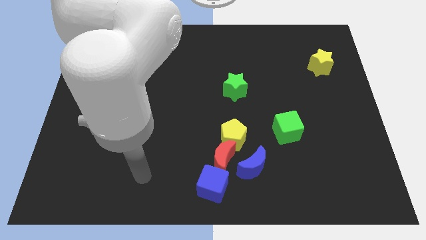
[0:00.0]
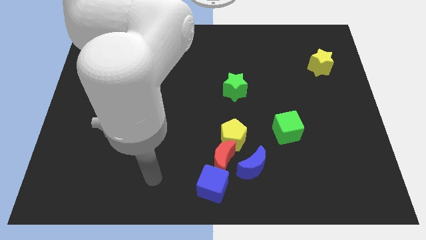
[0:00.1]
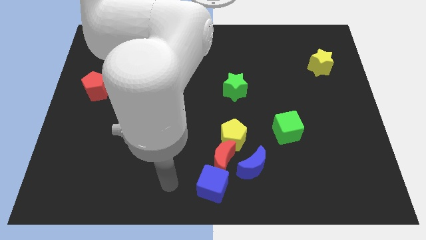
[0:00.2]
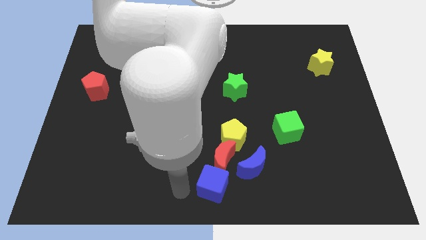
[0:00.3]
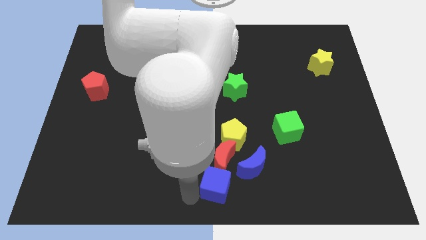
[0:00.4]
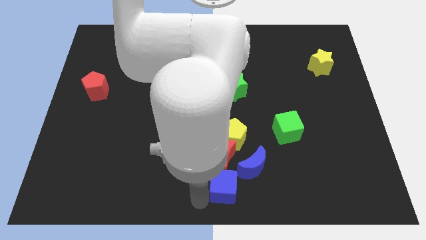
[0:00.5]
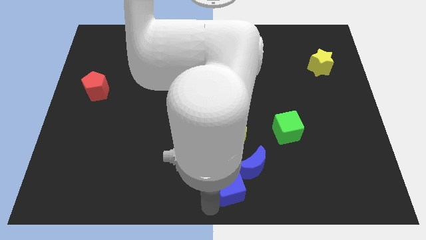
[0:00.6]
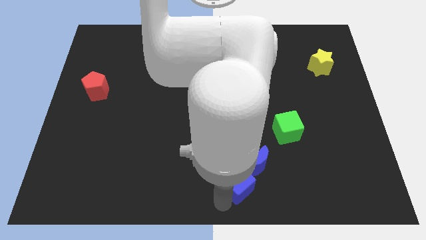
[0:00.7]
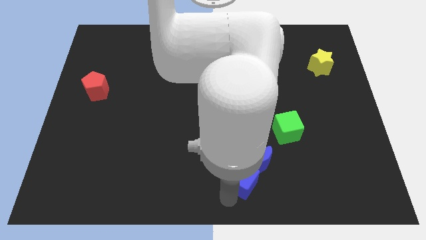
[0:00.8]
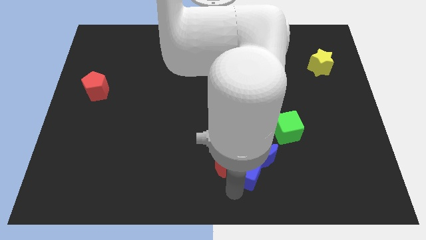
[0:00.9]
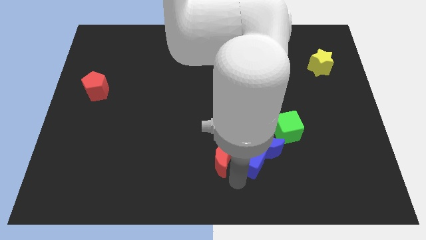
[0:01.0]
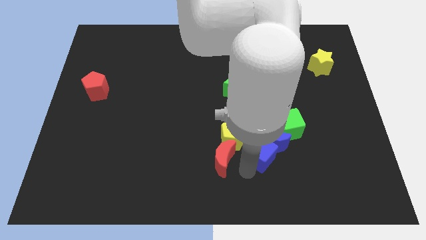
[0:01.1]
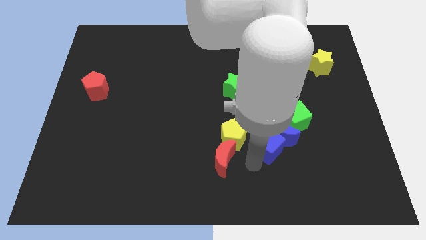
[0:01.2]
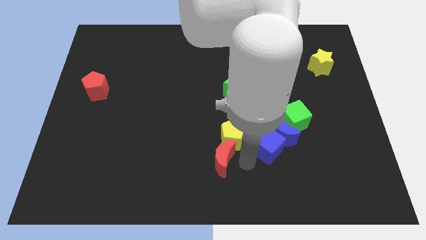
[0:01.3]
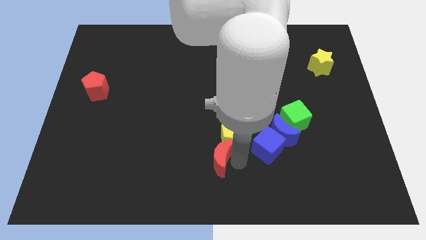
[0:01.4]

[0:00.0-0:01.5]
pull the red moon apart from the group of blocks

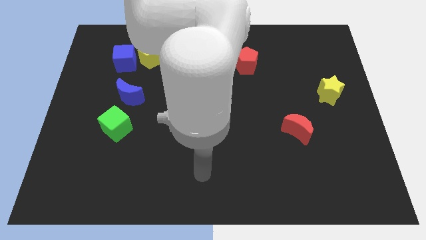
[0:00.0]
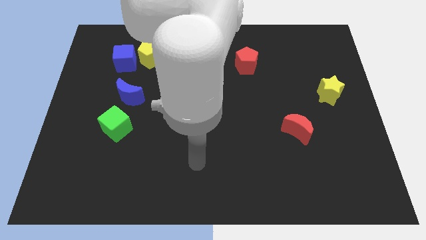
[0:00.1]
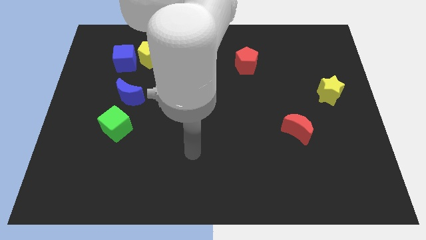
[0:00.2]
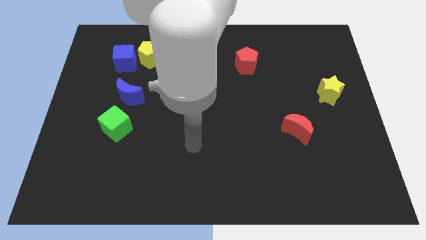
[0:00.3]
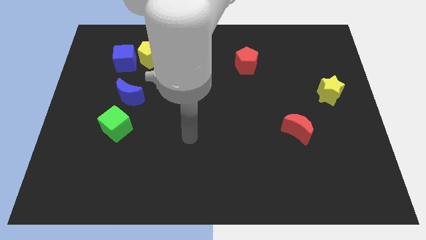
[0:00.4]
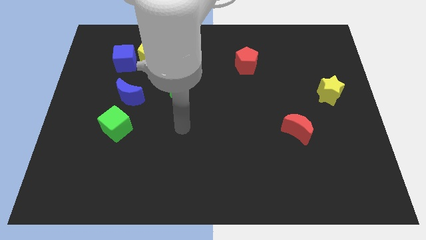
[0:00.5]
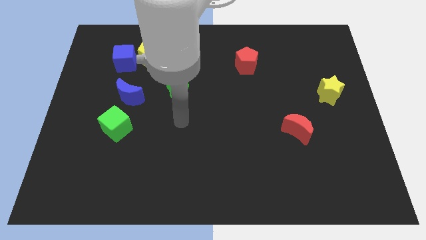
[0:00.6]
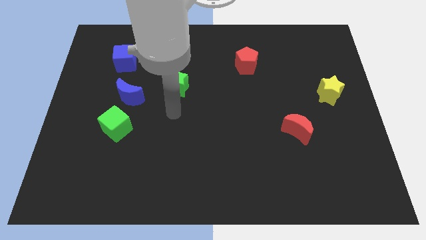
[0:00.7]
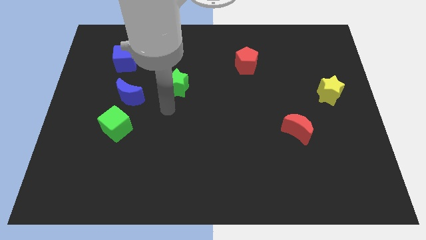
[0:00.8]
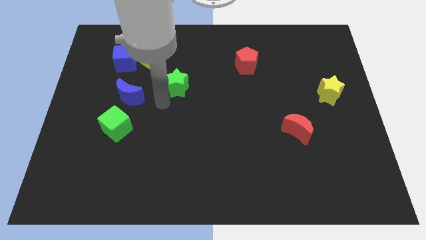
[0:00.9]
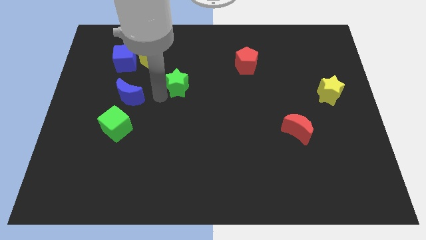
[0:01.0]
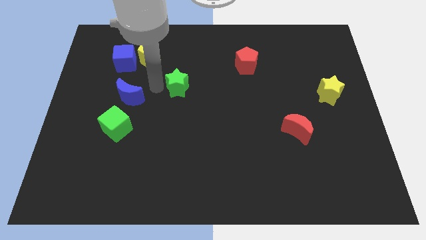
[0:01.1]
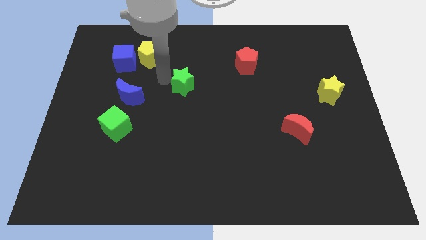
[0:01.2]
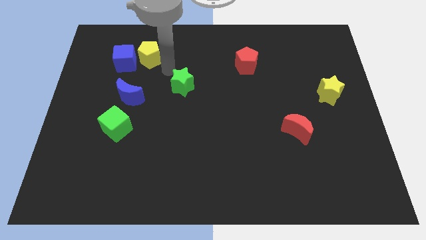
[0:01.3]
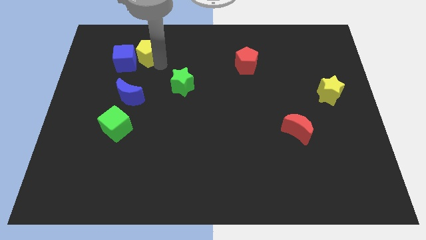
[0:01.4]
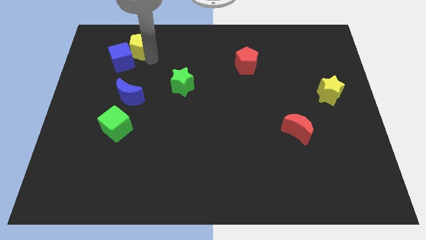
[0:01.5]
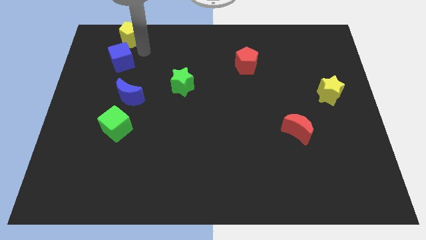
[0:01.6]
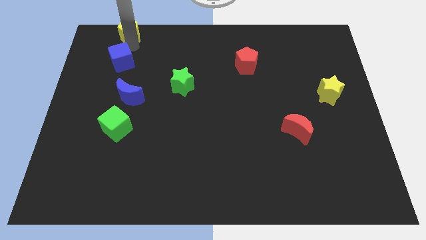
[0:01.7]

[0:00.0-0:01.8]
pull the blue cube apart from the yellow pentagon

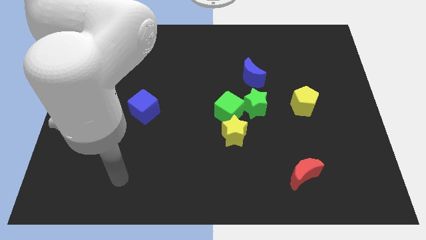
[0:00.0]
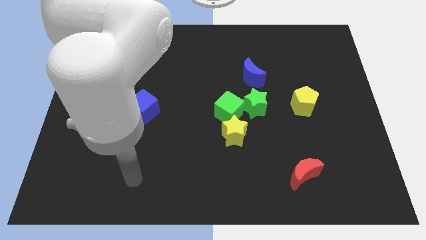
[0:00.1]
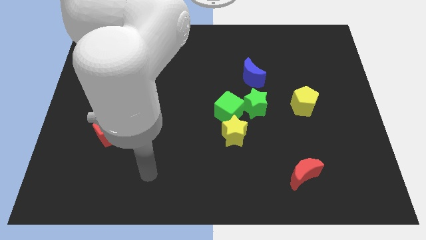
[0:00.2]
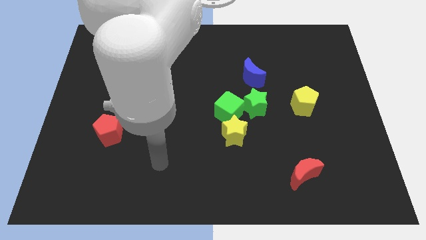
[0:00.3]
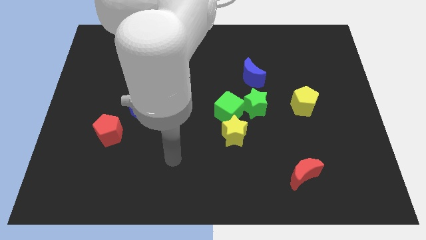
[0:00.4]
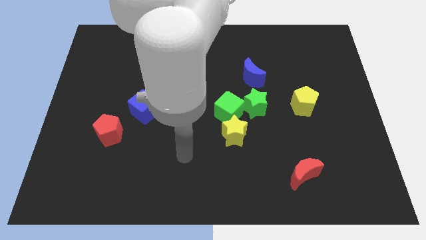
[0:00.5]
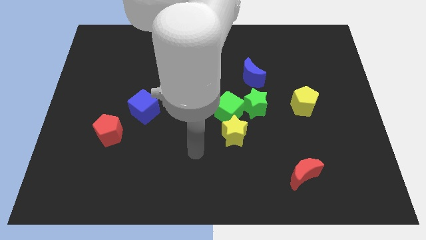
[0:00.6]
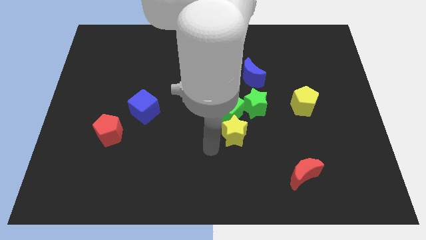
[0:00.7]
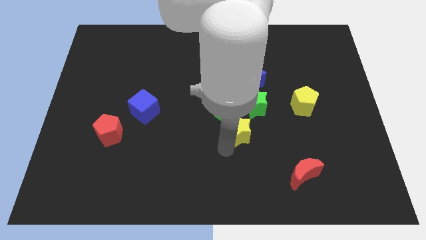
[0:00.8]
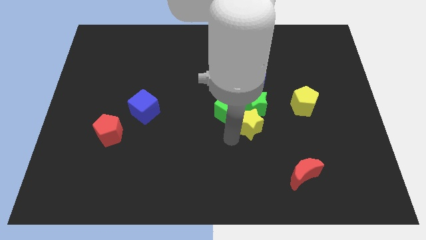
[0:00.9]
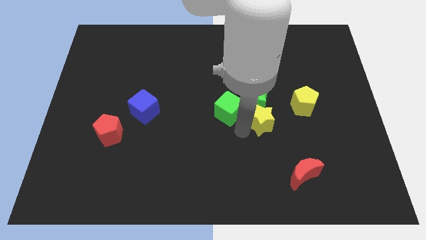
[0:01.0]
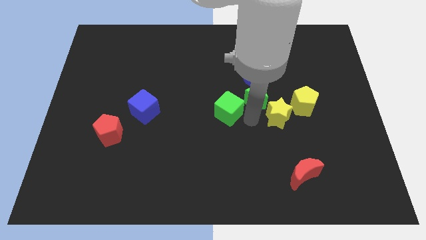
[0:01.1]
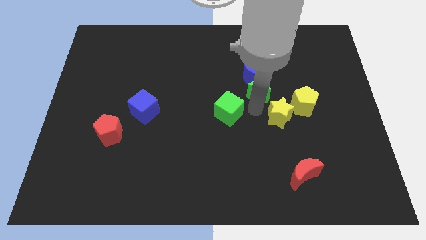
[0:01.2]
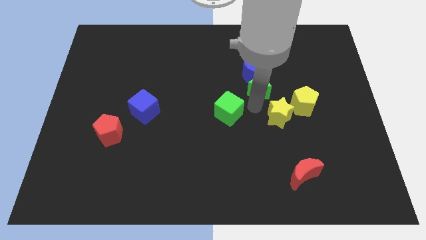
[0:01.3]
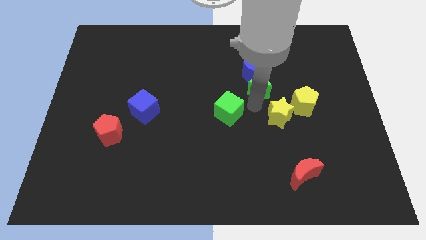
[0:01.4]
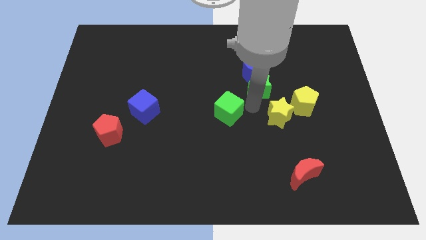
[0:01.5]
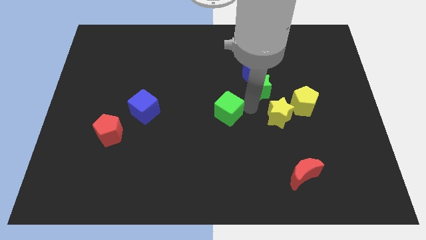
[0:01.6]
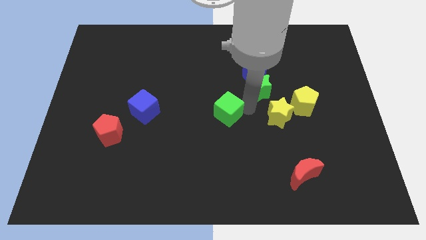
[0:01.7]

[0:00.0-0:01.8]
move the green cube away from the green star and yellow star

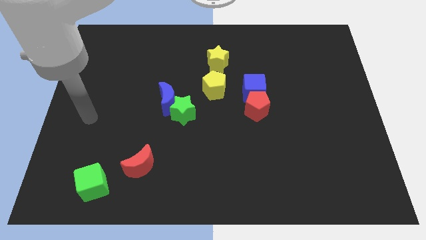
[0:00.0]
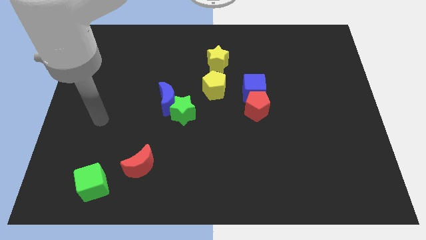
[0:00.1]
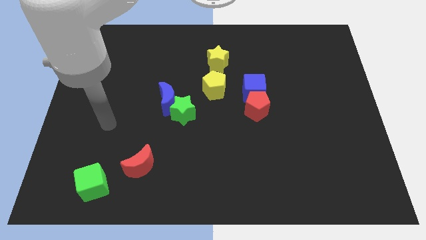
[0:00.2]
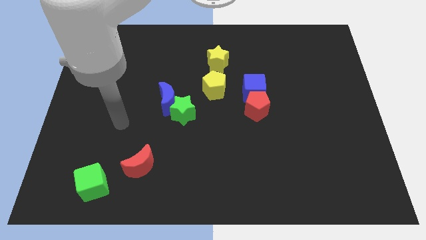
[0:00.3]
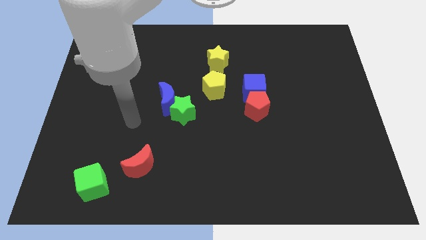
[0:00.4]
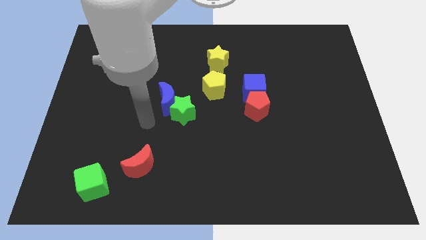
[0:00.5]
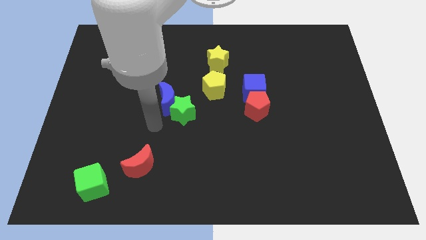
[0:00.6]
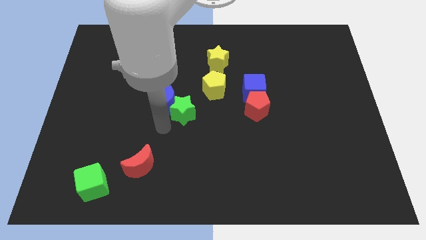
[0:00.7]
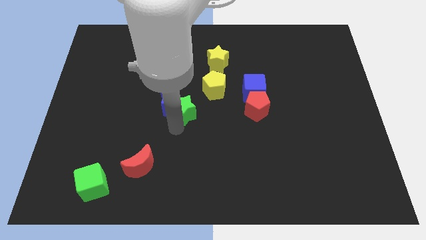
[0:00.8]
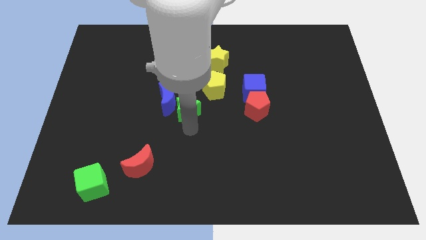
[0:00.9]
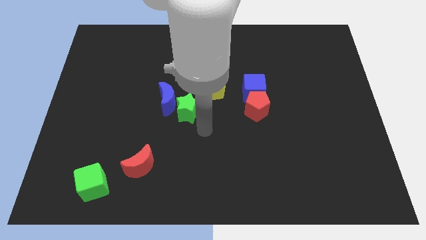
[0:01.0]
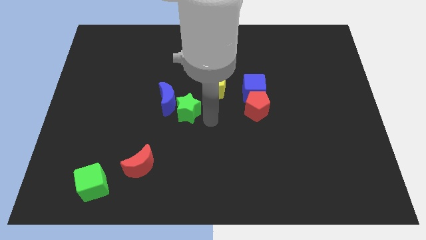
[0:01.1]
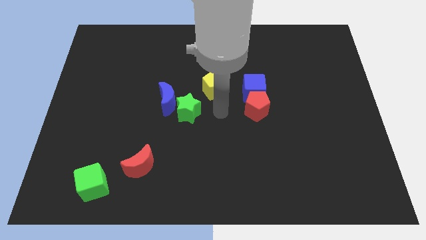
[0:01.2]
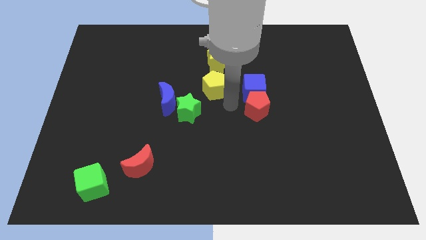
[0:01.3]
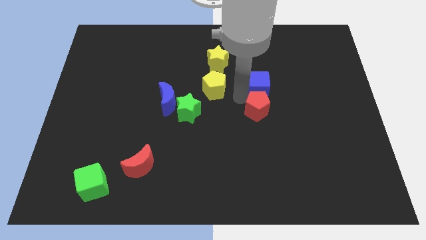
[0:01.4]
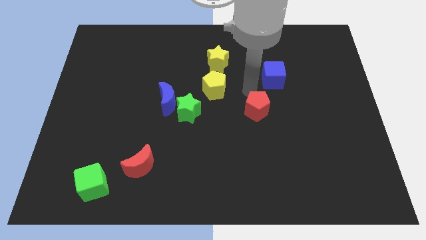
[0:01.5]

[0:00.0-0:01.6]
move the red pentagon away from the blue cube

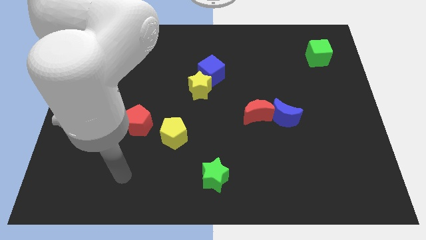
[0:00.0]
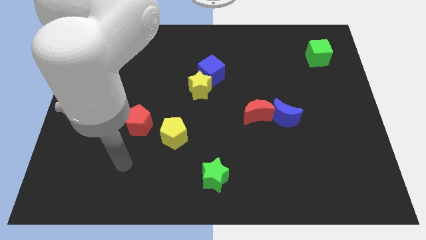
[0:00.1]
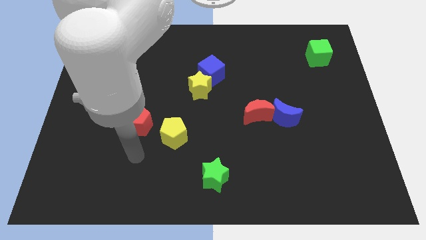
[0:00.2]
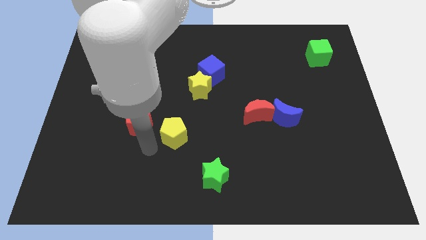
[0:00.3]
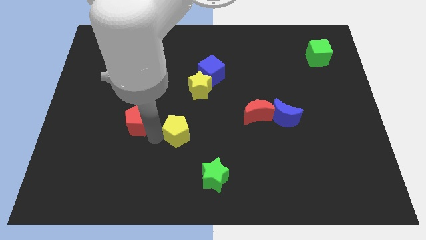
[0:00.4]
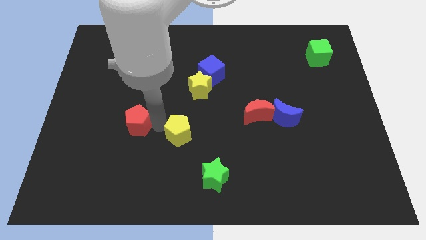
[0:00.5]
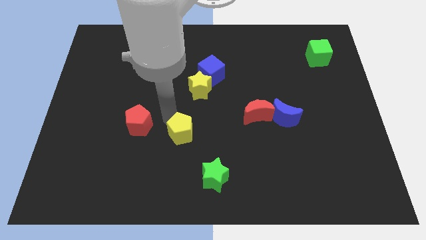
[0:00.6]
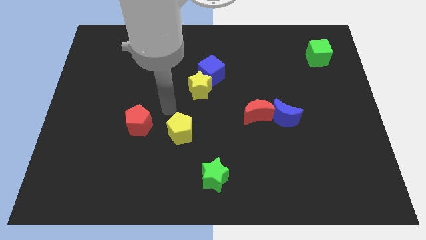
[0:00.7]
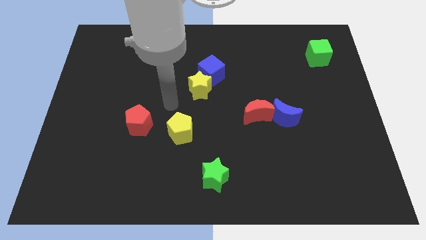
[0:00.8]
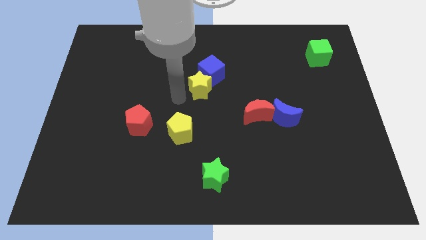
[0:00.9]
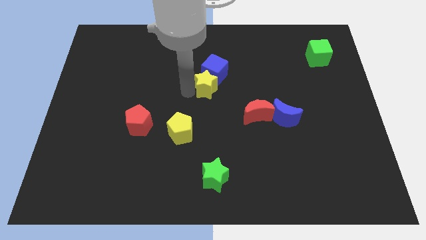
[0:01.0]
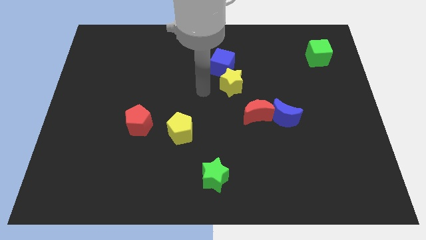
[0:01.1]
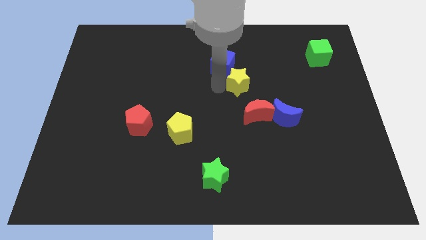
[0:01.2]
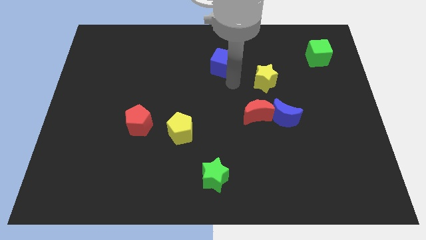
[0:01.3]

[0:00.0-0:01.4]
separate the blue cube from the yellow star

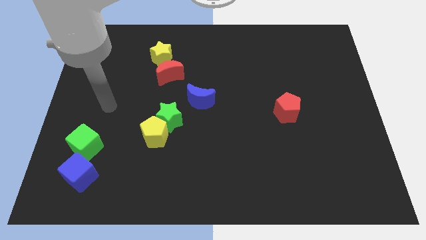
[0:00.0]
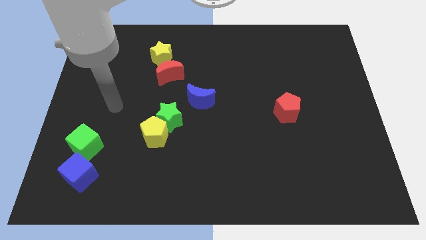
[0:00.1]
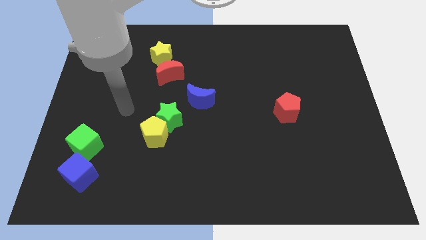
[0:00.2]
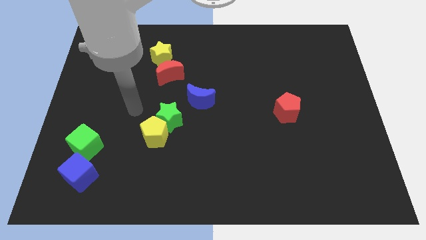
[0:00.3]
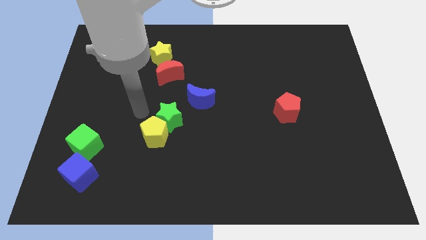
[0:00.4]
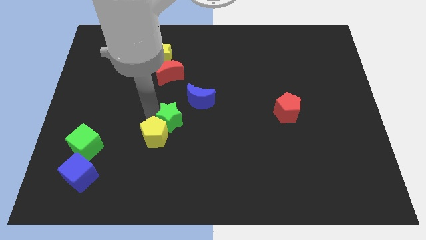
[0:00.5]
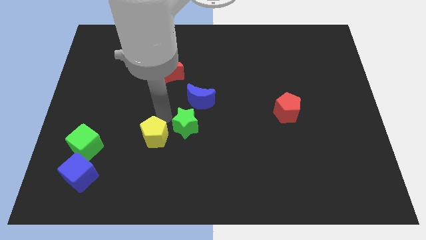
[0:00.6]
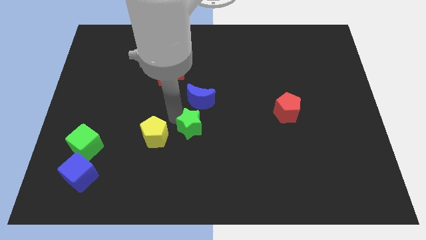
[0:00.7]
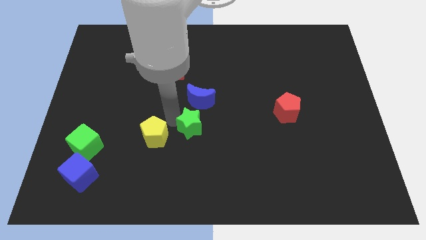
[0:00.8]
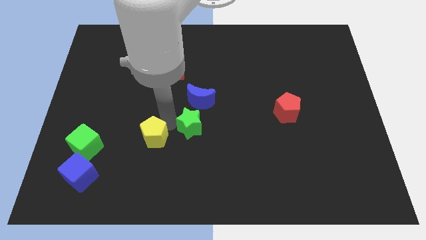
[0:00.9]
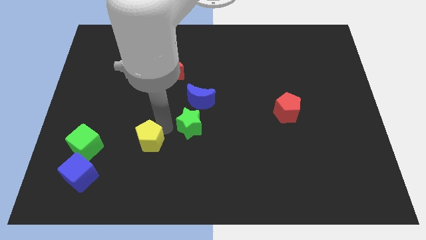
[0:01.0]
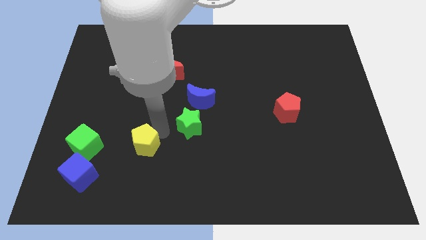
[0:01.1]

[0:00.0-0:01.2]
separate the yellow pentagon from the green star
